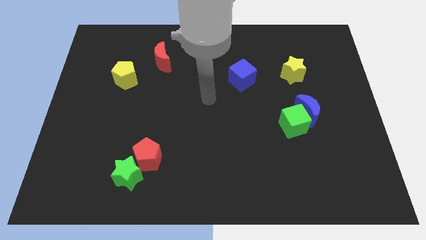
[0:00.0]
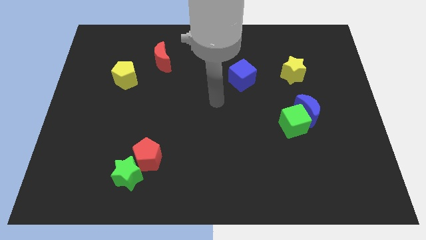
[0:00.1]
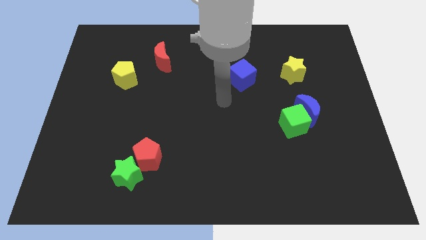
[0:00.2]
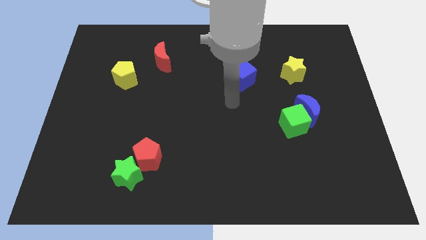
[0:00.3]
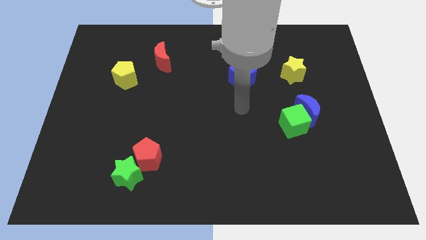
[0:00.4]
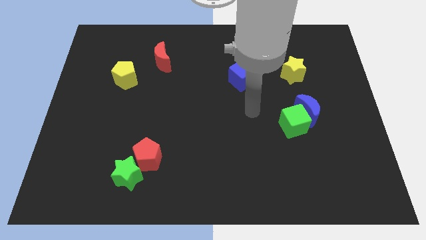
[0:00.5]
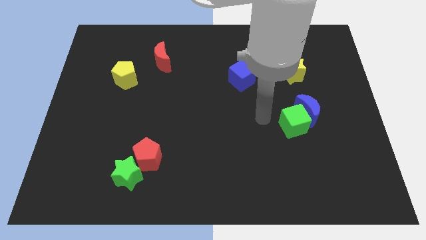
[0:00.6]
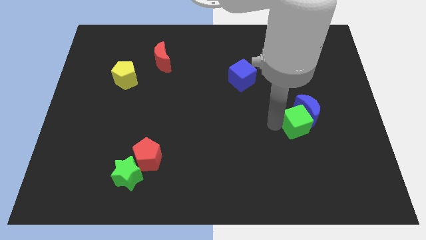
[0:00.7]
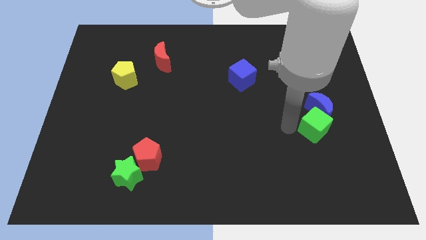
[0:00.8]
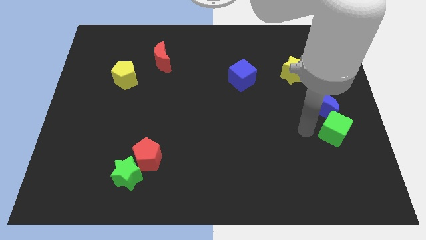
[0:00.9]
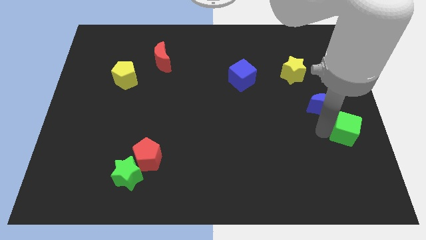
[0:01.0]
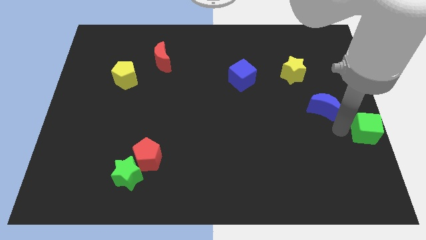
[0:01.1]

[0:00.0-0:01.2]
move the blue moon away from the green cube

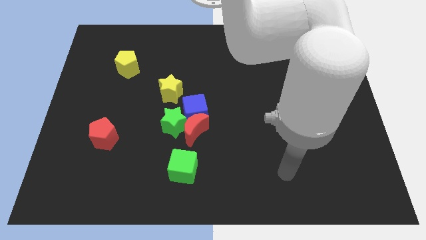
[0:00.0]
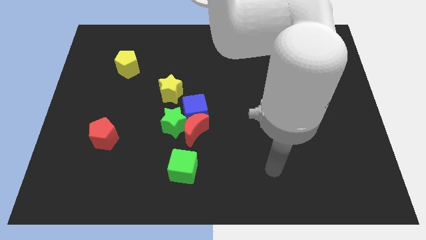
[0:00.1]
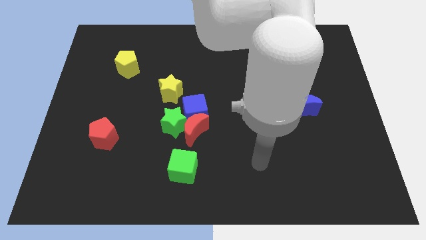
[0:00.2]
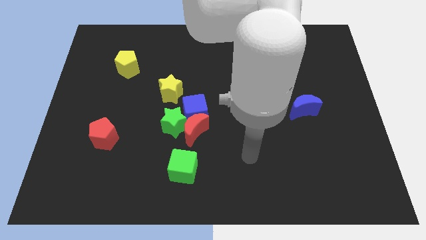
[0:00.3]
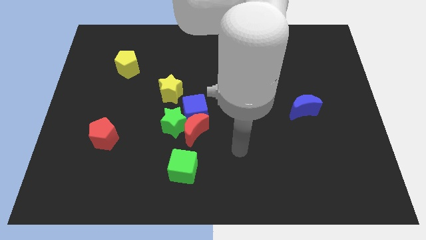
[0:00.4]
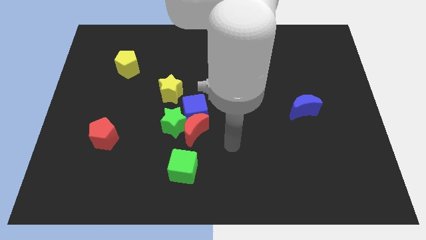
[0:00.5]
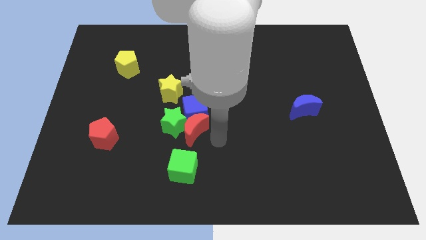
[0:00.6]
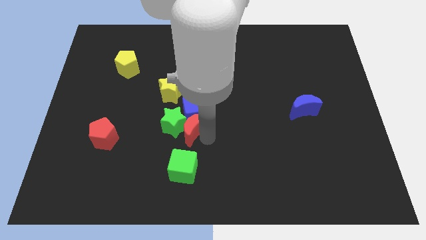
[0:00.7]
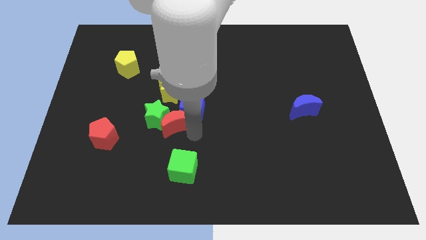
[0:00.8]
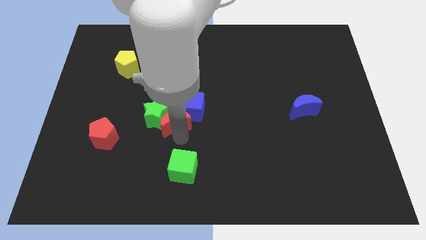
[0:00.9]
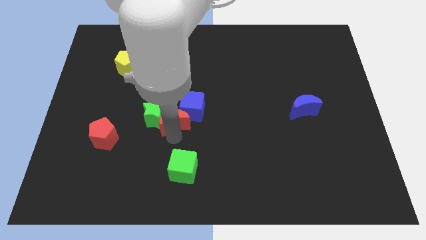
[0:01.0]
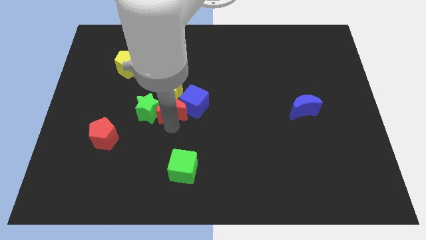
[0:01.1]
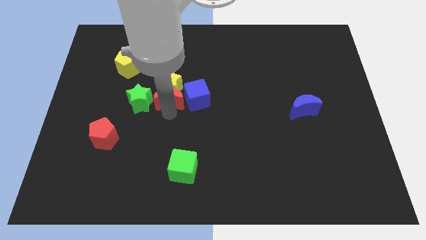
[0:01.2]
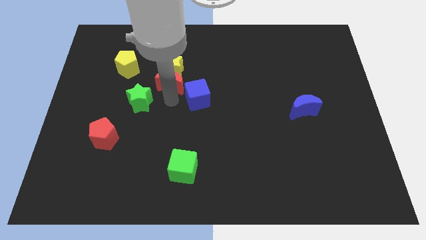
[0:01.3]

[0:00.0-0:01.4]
separate the blue cube from the clump

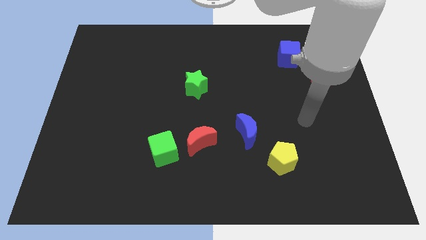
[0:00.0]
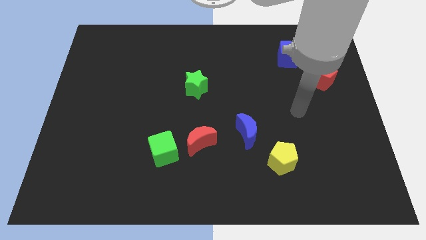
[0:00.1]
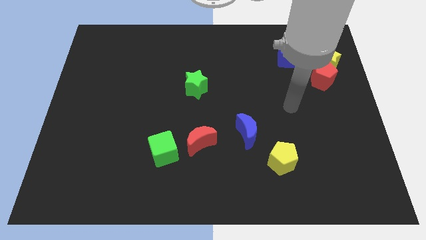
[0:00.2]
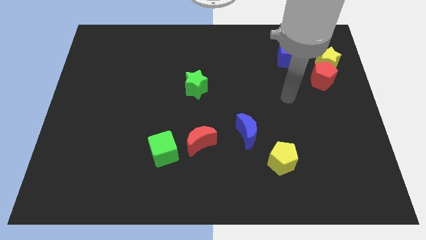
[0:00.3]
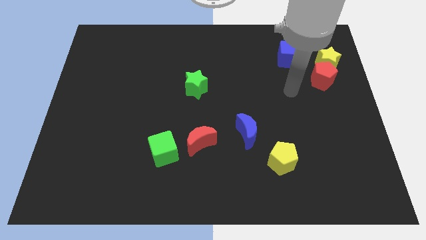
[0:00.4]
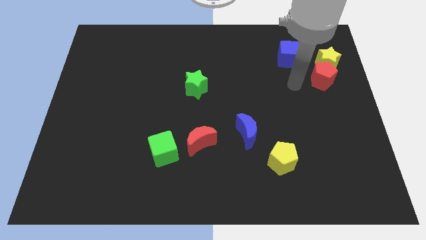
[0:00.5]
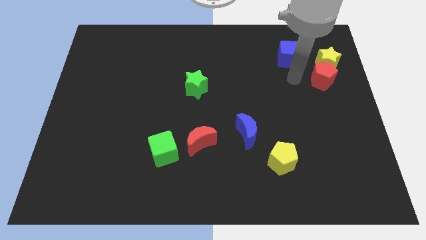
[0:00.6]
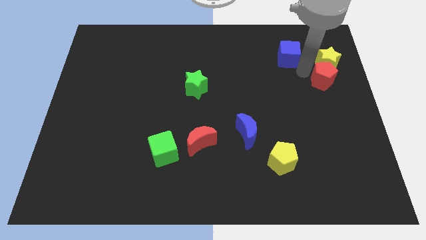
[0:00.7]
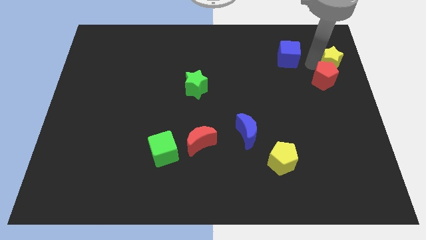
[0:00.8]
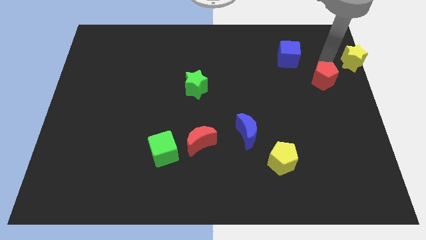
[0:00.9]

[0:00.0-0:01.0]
move the red pentagon away from the yellow star

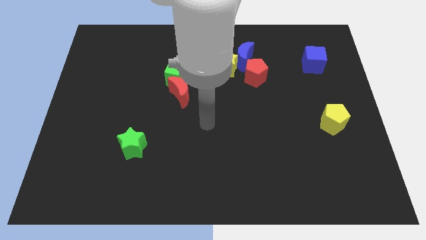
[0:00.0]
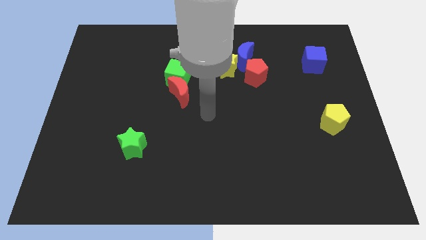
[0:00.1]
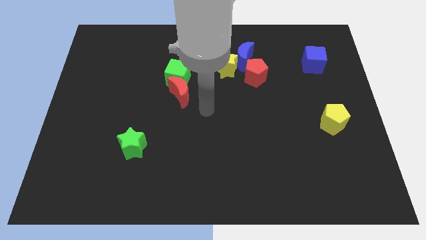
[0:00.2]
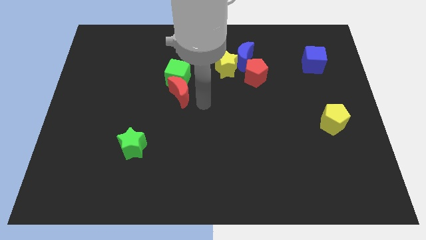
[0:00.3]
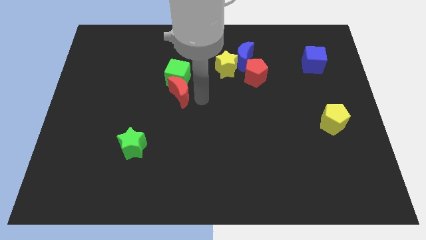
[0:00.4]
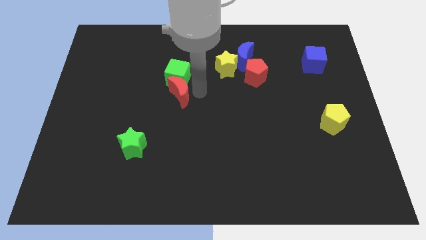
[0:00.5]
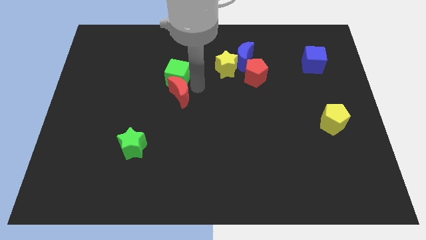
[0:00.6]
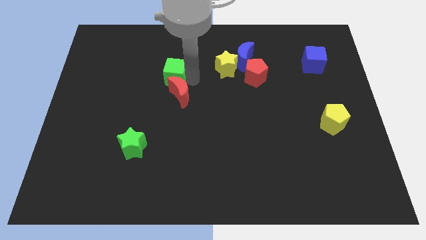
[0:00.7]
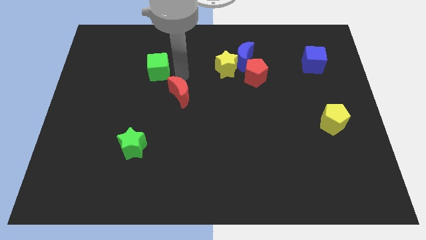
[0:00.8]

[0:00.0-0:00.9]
move the red moon away from the green cube

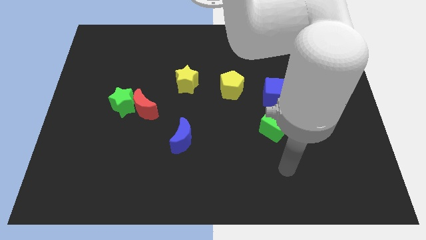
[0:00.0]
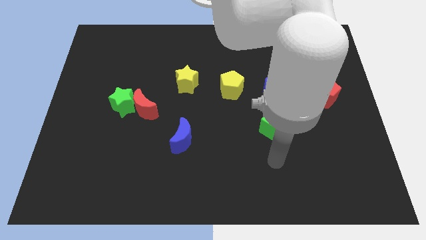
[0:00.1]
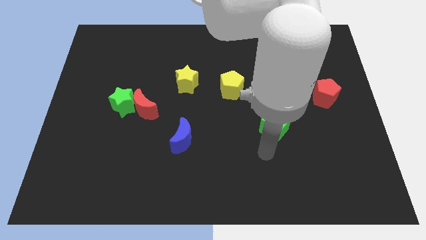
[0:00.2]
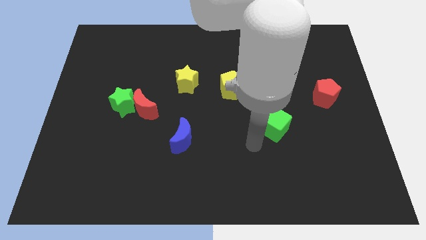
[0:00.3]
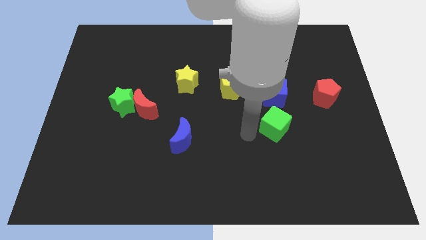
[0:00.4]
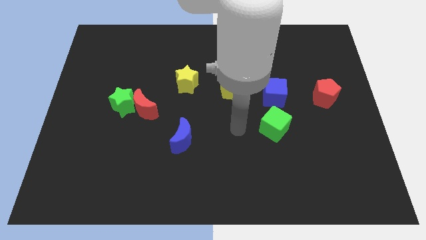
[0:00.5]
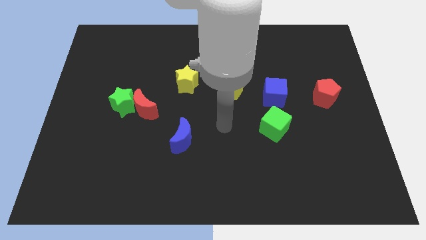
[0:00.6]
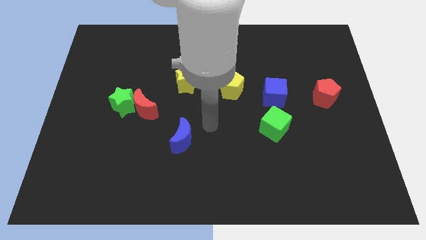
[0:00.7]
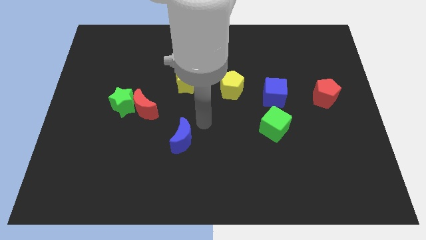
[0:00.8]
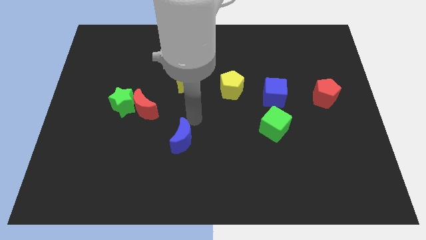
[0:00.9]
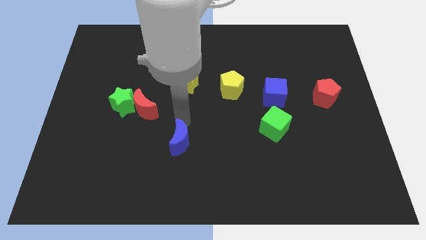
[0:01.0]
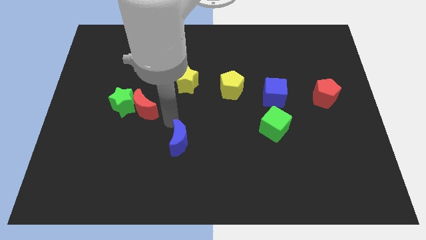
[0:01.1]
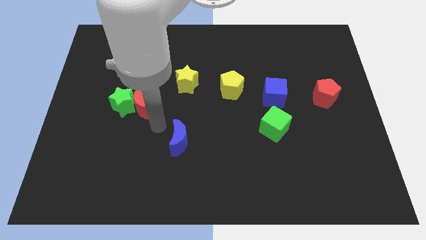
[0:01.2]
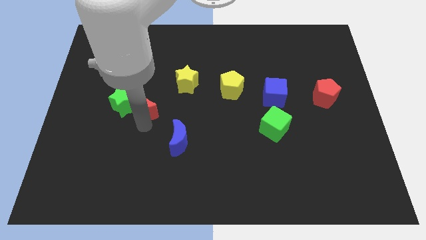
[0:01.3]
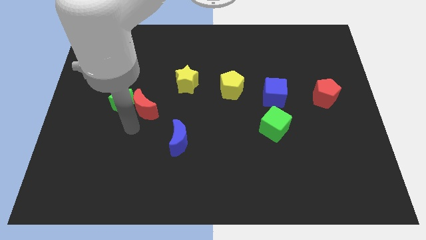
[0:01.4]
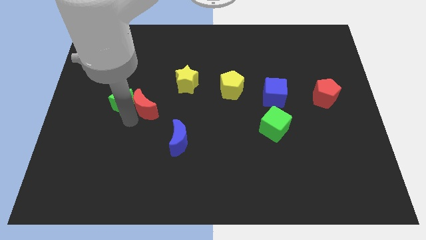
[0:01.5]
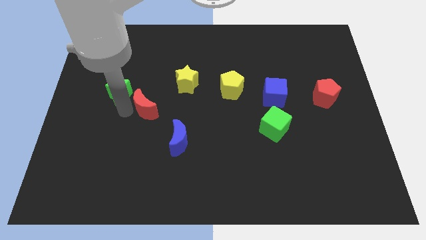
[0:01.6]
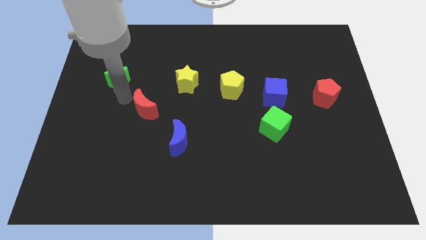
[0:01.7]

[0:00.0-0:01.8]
pull the red moon apart from the green star

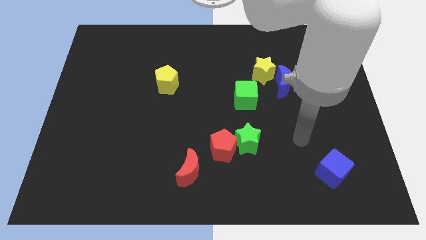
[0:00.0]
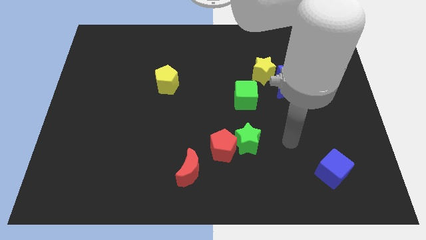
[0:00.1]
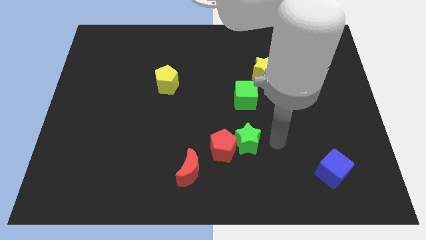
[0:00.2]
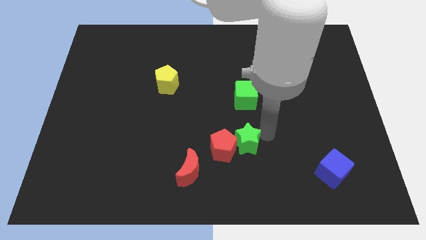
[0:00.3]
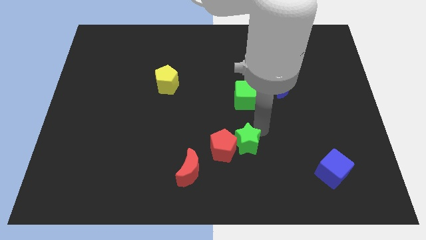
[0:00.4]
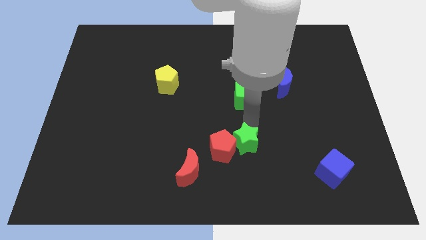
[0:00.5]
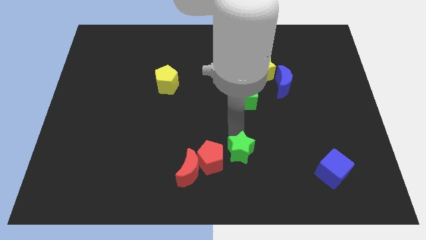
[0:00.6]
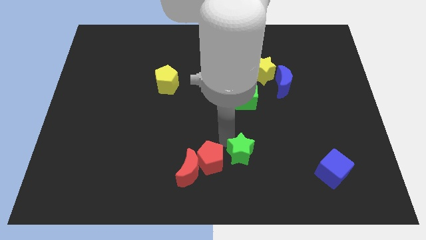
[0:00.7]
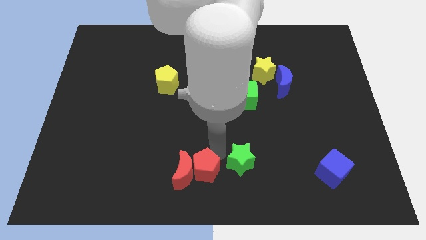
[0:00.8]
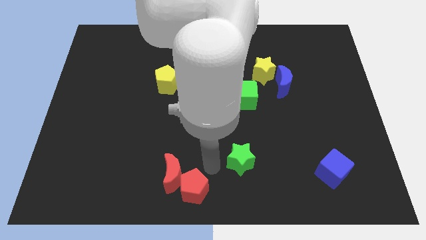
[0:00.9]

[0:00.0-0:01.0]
pull the green star apart from the red pentagon

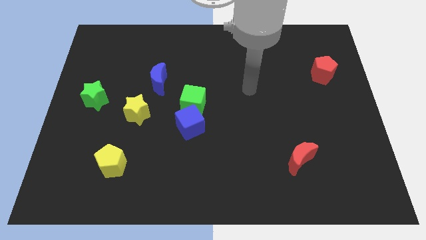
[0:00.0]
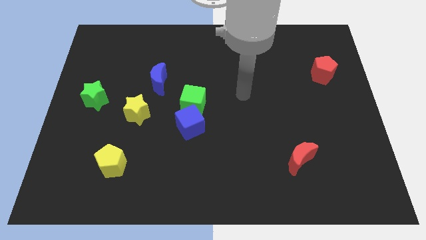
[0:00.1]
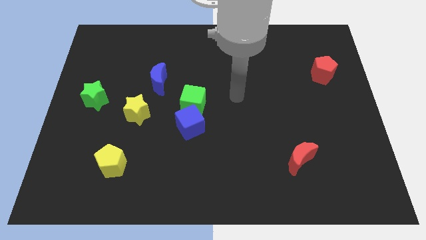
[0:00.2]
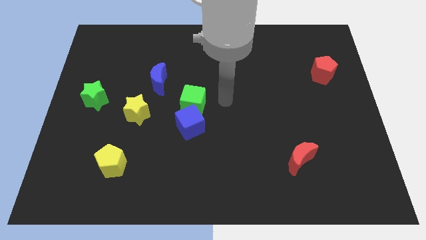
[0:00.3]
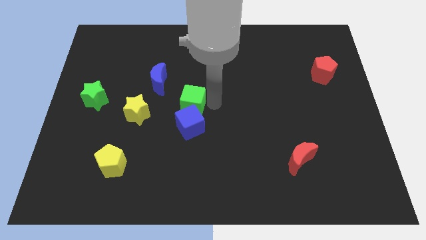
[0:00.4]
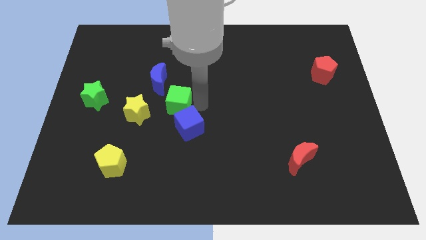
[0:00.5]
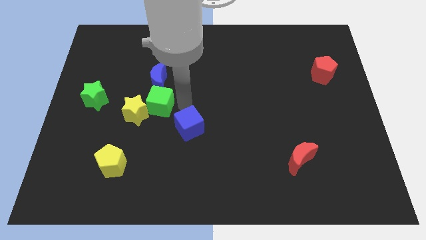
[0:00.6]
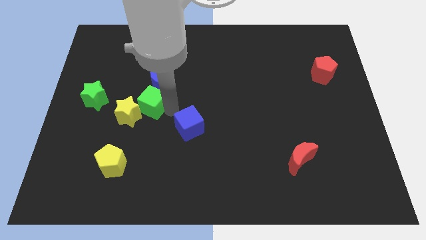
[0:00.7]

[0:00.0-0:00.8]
separate the blue cube from the green cube

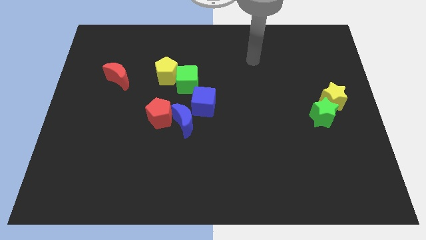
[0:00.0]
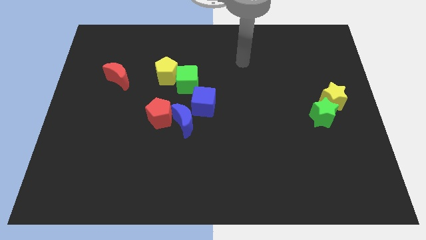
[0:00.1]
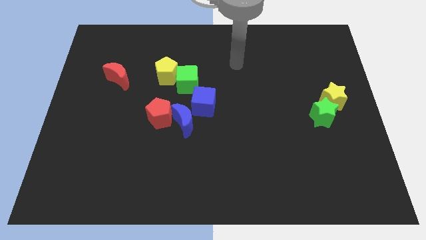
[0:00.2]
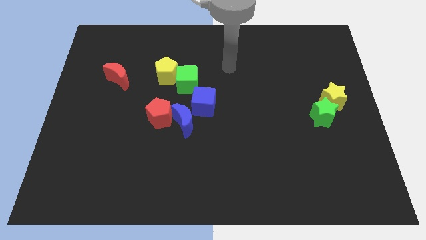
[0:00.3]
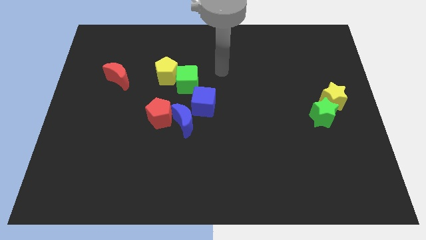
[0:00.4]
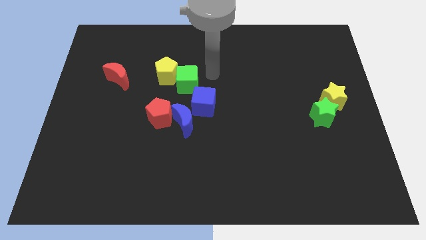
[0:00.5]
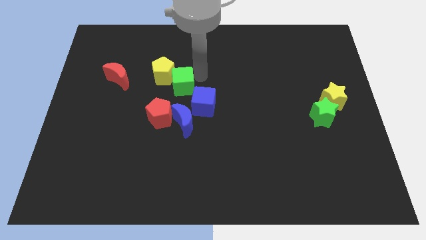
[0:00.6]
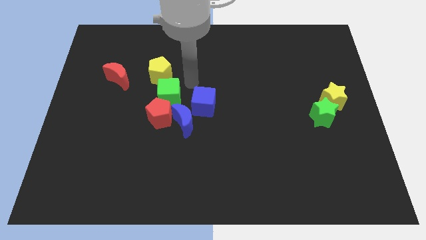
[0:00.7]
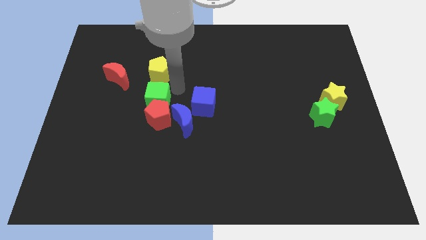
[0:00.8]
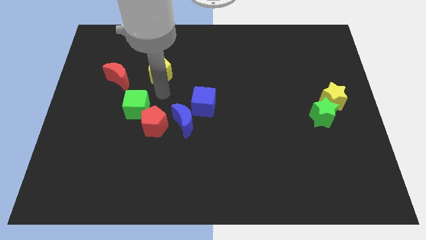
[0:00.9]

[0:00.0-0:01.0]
pull the yellow pentagon apart from the green cube

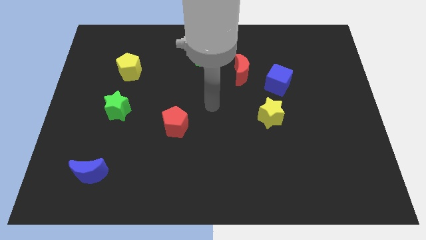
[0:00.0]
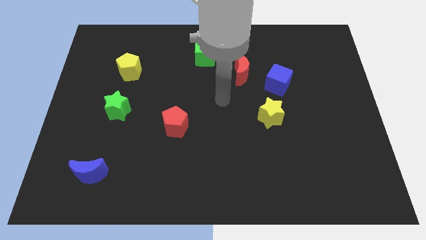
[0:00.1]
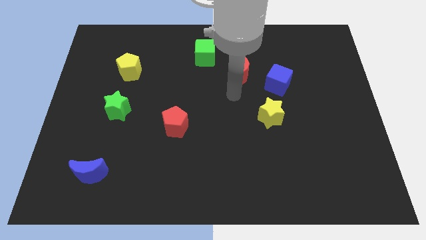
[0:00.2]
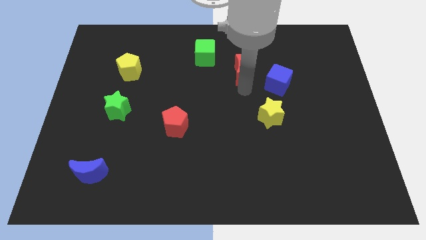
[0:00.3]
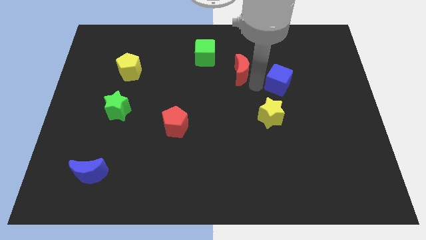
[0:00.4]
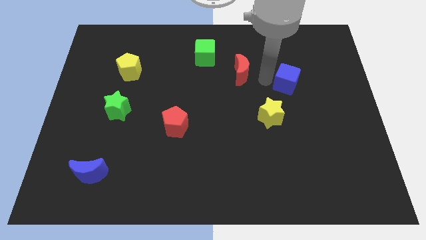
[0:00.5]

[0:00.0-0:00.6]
move the red moon away from the blue cube
